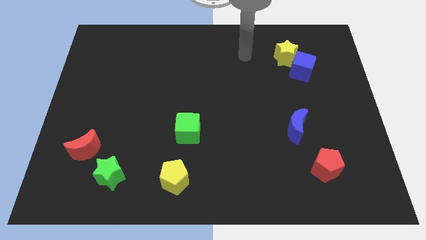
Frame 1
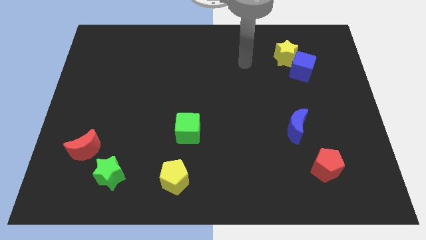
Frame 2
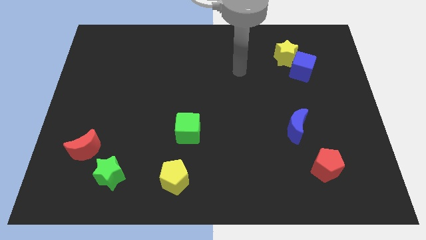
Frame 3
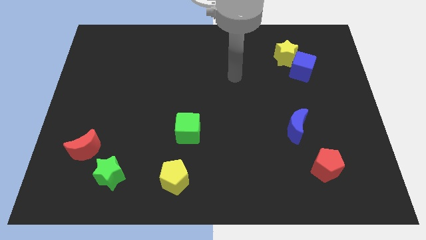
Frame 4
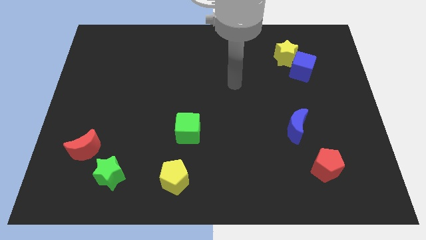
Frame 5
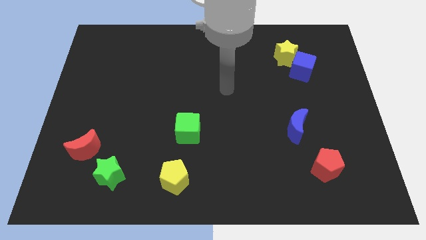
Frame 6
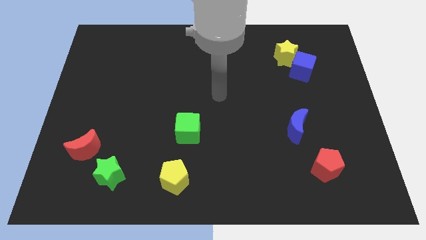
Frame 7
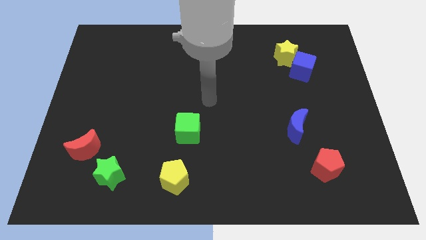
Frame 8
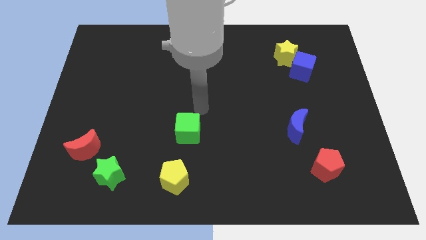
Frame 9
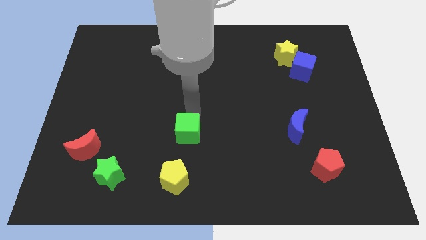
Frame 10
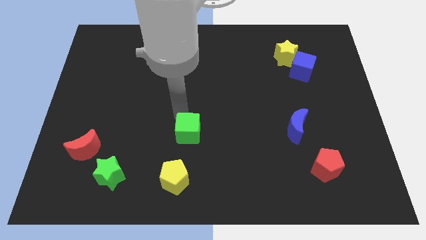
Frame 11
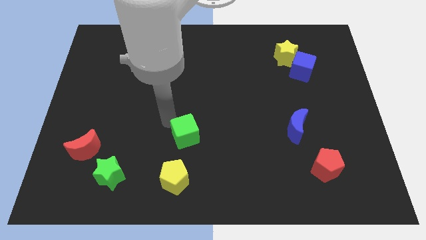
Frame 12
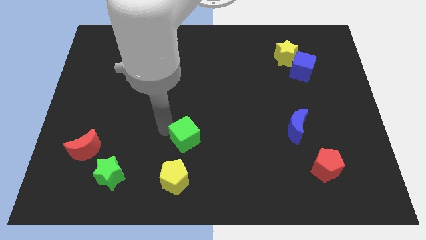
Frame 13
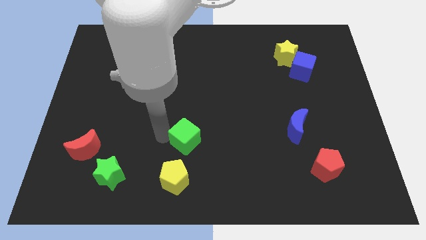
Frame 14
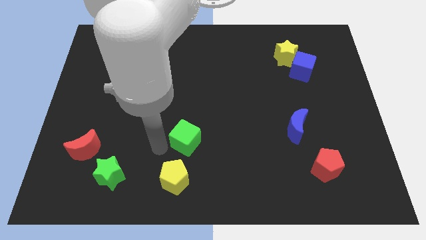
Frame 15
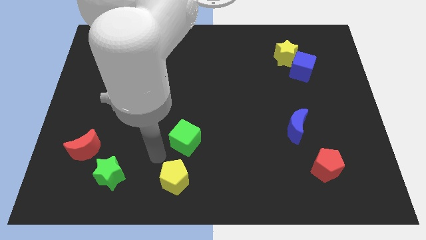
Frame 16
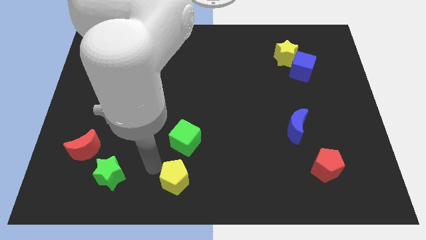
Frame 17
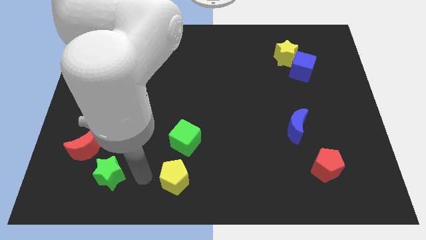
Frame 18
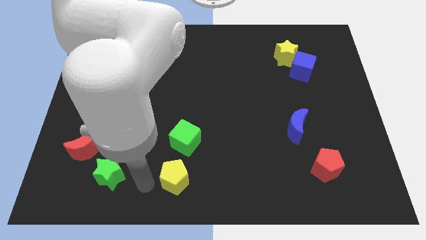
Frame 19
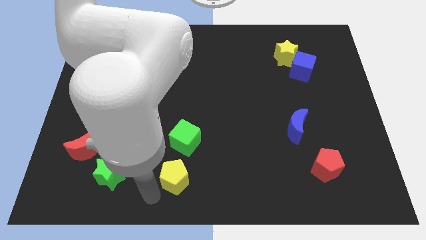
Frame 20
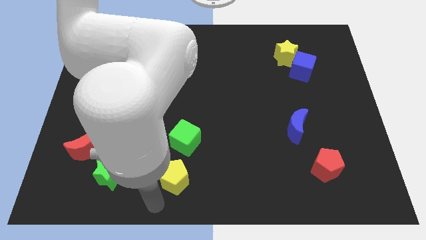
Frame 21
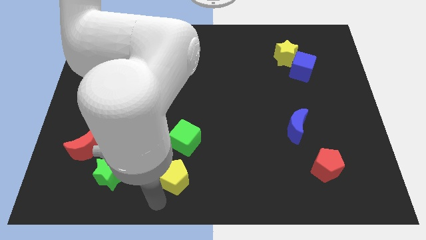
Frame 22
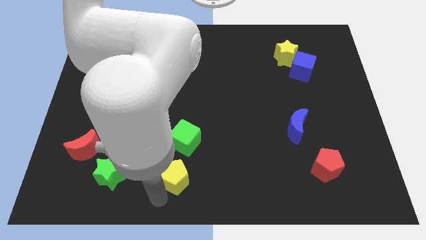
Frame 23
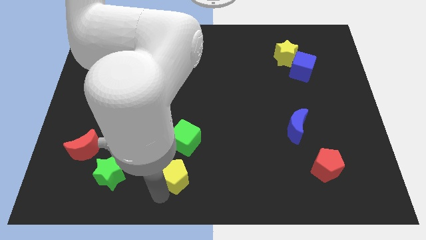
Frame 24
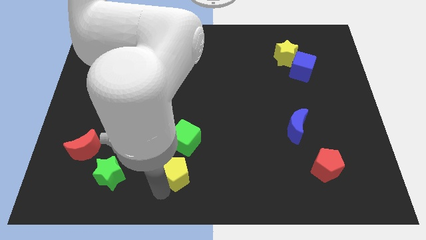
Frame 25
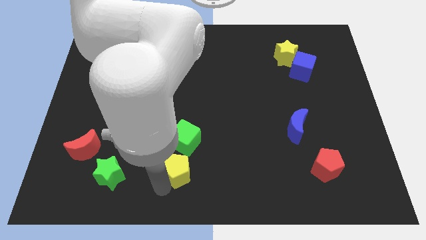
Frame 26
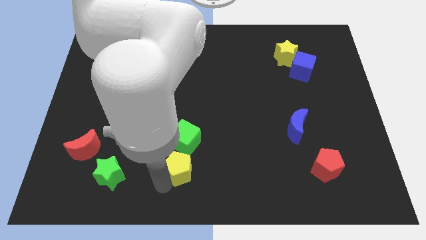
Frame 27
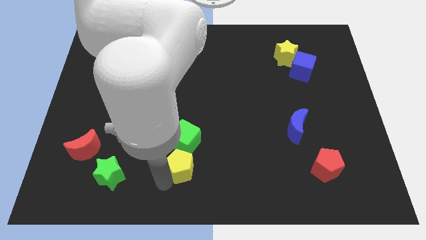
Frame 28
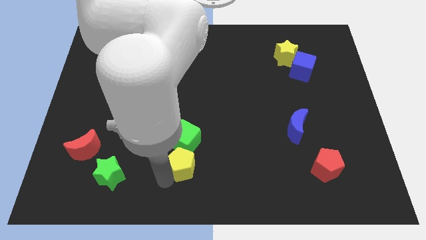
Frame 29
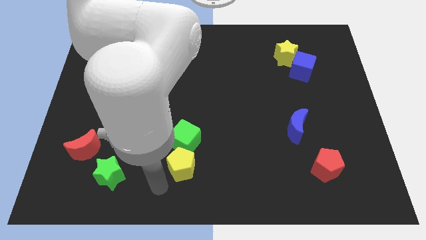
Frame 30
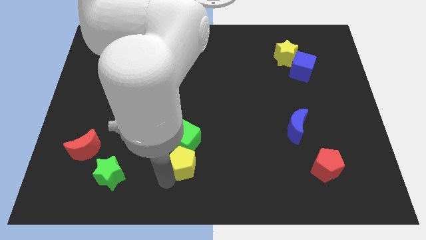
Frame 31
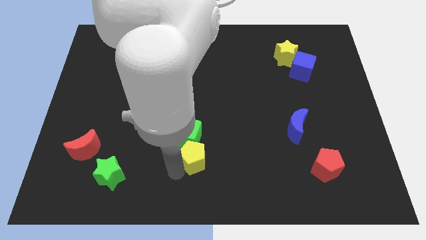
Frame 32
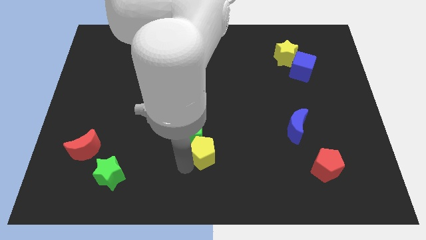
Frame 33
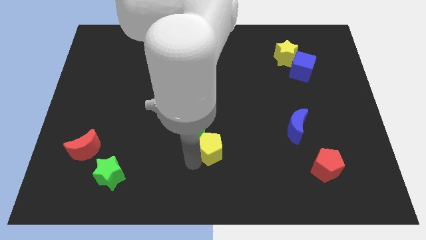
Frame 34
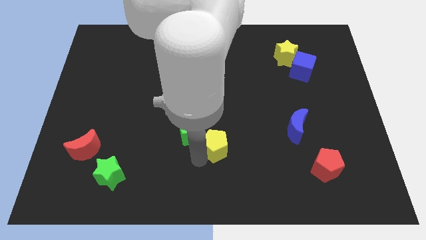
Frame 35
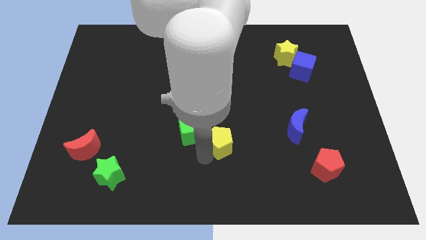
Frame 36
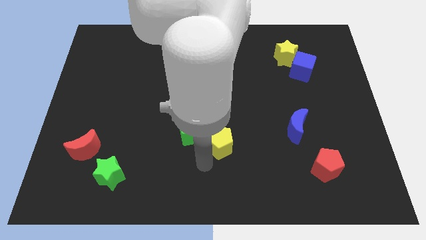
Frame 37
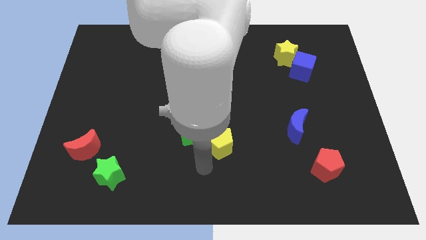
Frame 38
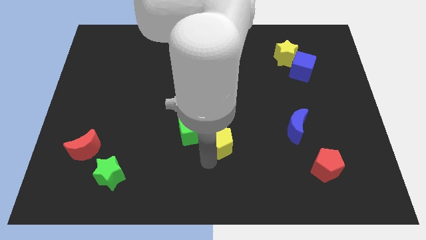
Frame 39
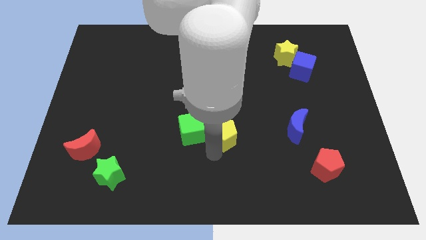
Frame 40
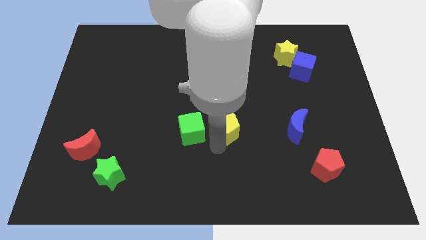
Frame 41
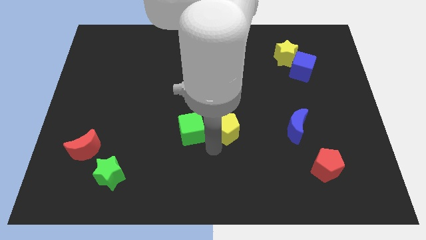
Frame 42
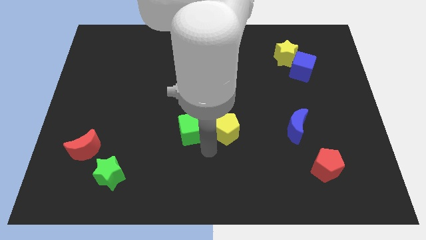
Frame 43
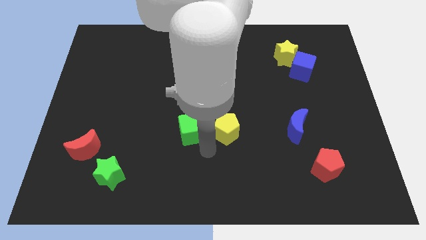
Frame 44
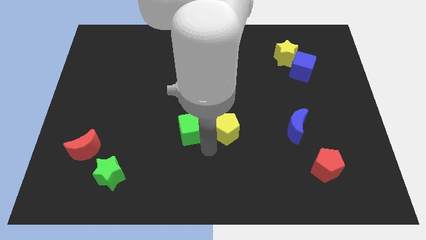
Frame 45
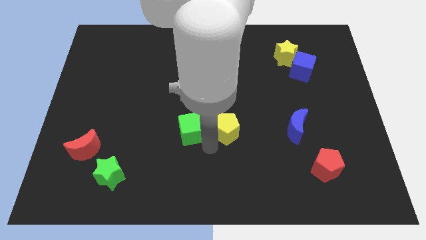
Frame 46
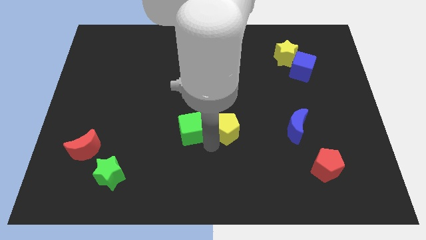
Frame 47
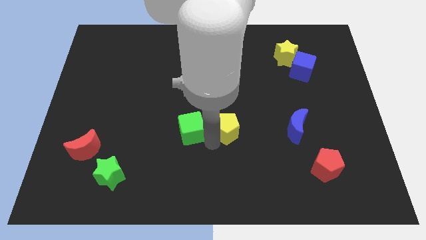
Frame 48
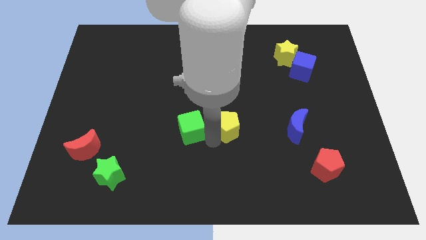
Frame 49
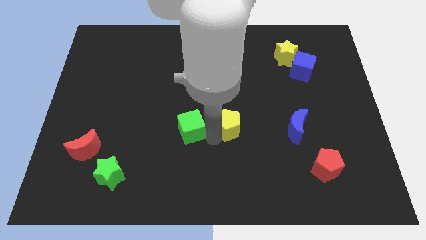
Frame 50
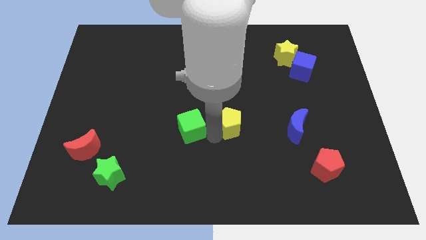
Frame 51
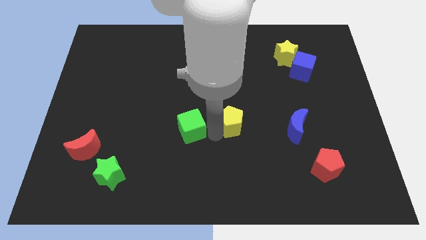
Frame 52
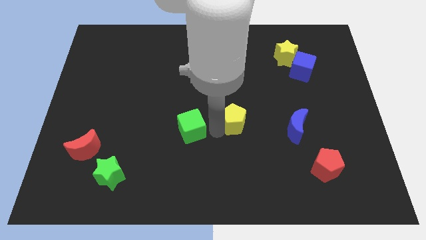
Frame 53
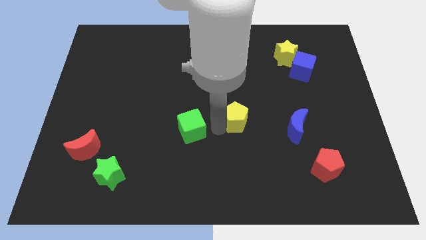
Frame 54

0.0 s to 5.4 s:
move the yellow pentagon diagonally up and right

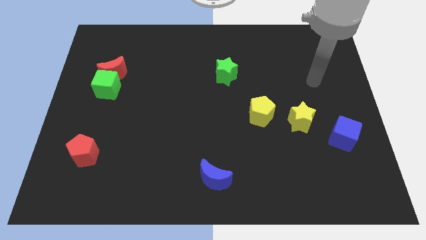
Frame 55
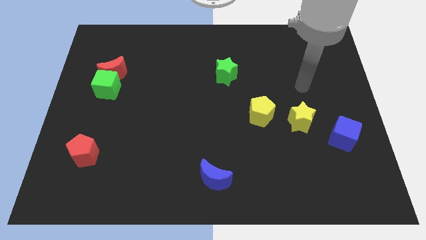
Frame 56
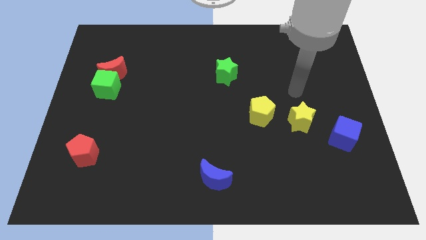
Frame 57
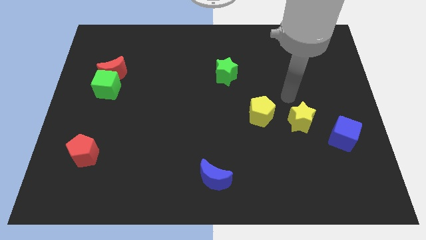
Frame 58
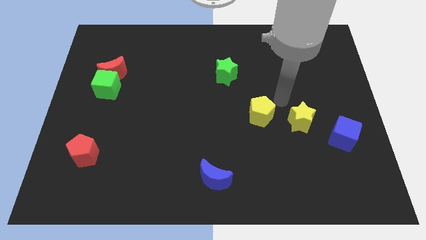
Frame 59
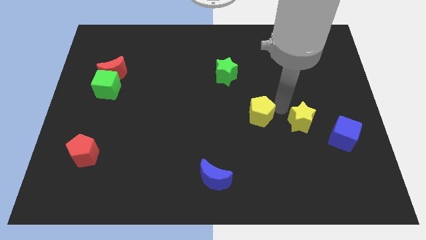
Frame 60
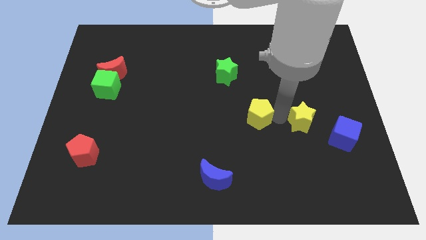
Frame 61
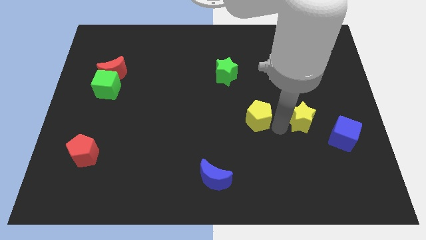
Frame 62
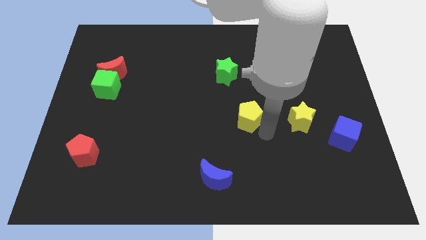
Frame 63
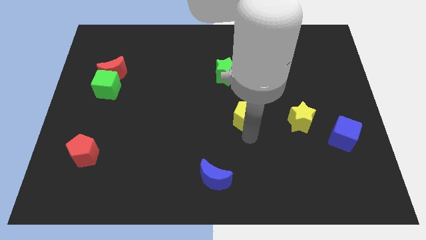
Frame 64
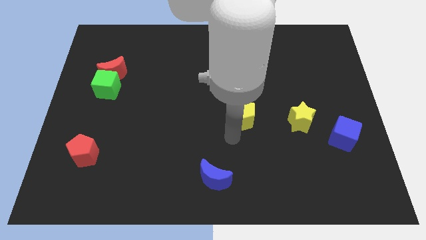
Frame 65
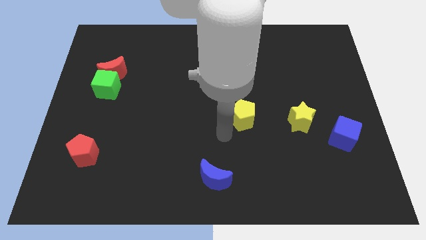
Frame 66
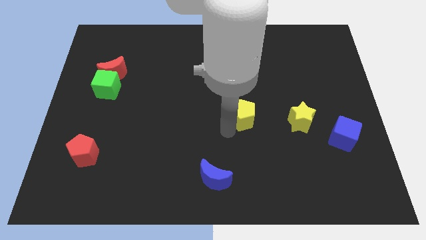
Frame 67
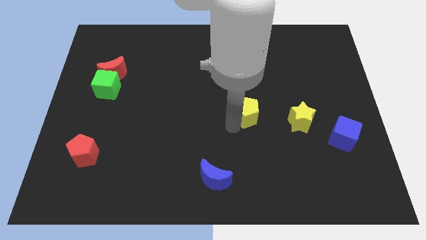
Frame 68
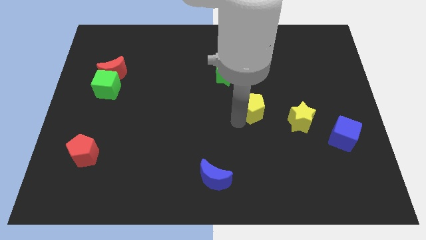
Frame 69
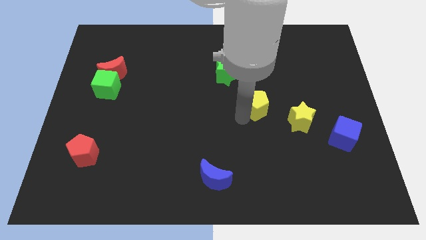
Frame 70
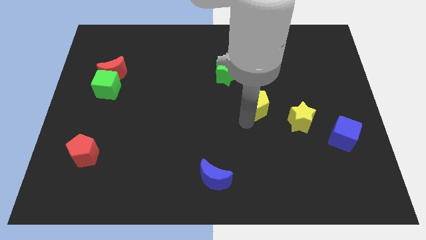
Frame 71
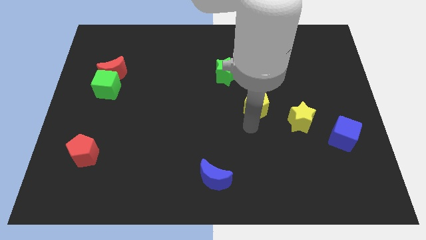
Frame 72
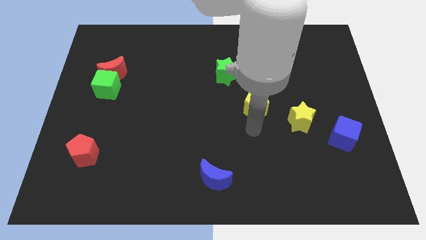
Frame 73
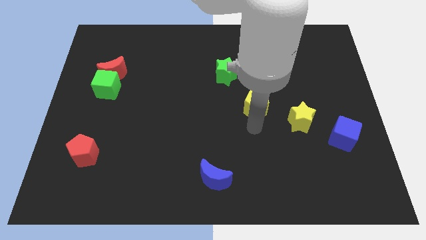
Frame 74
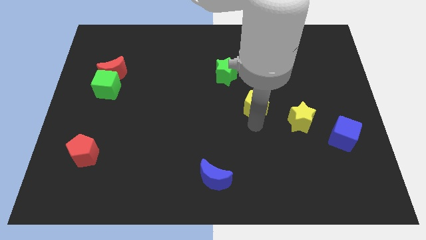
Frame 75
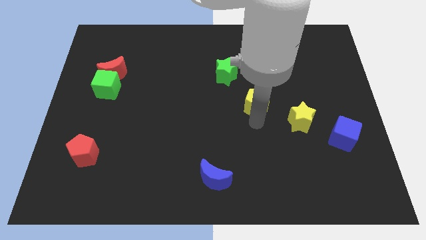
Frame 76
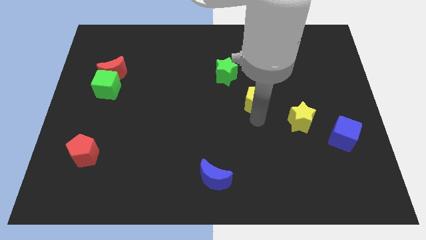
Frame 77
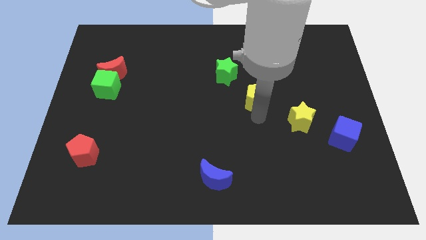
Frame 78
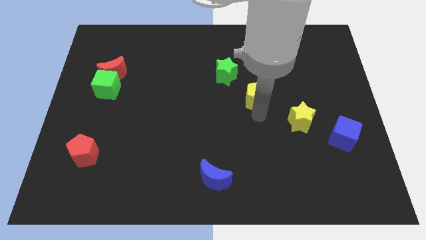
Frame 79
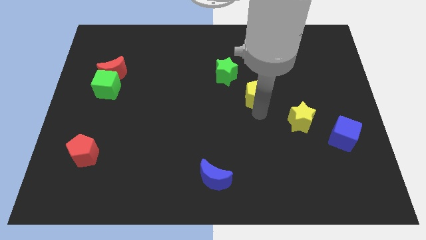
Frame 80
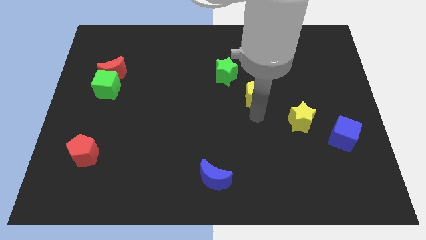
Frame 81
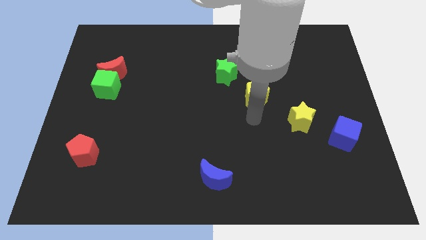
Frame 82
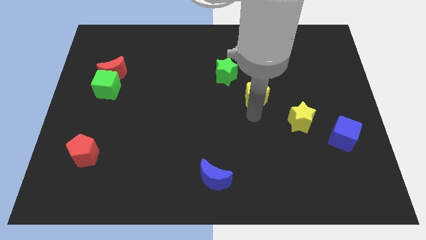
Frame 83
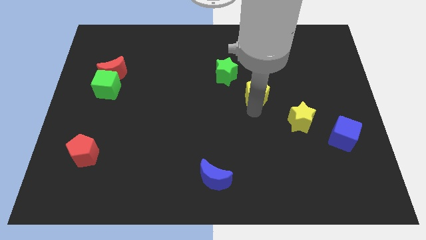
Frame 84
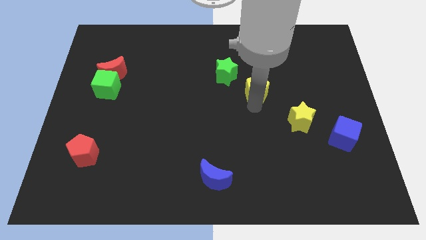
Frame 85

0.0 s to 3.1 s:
slide the yellow pentagon upwards somewhat
